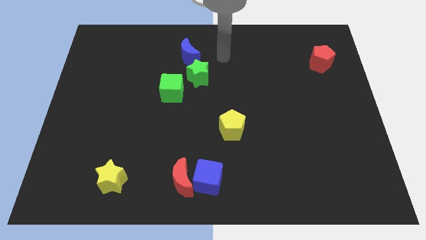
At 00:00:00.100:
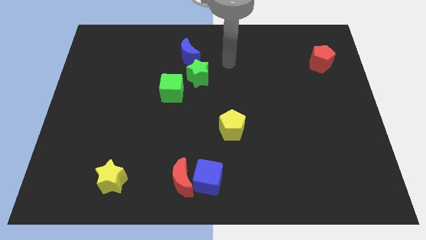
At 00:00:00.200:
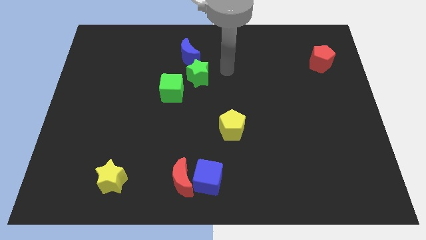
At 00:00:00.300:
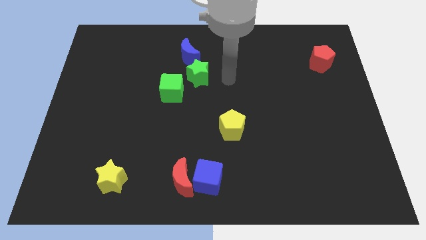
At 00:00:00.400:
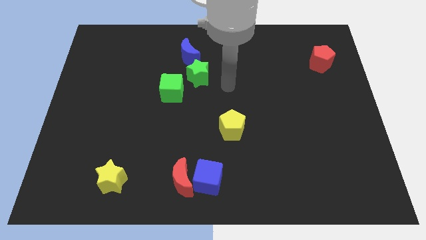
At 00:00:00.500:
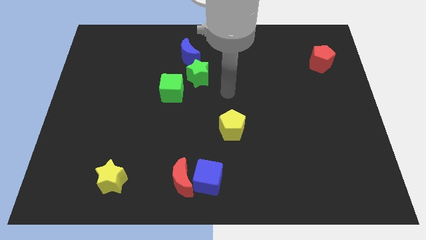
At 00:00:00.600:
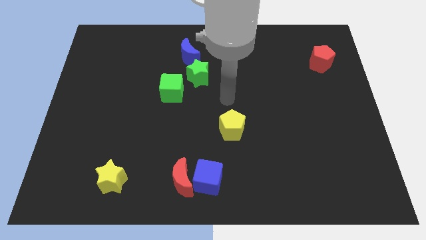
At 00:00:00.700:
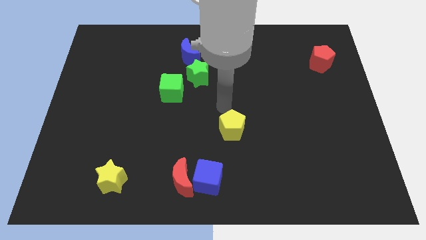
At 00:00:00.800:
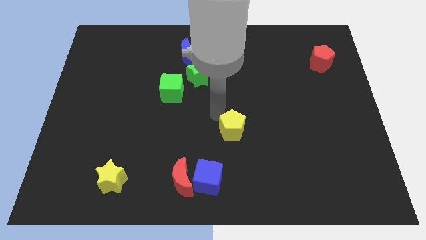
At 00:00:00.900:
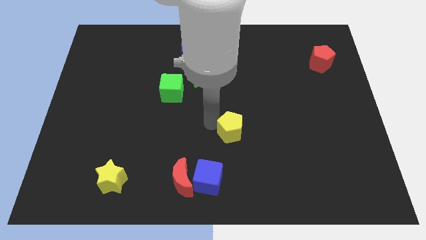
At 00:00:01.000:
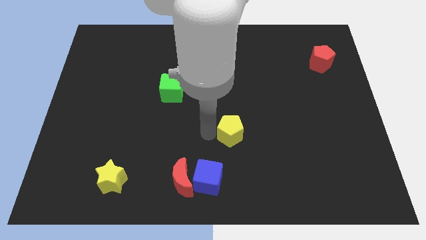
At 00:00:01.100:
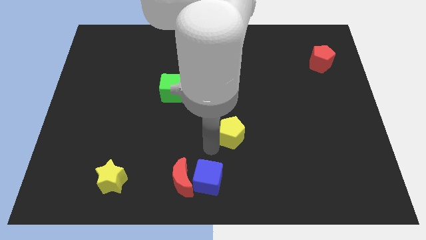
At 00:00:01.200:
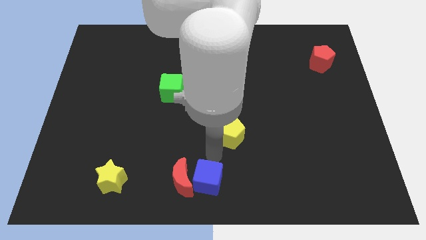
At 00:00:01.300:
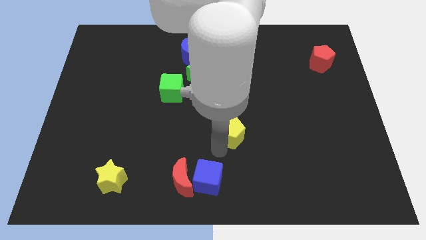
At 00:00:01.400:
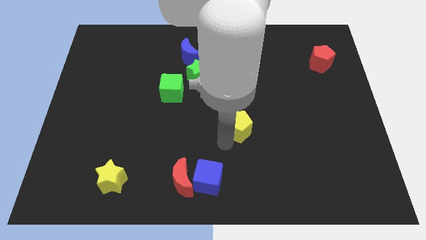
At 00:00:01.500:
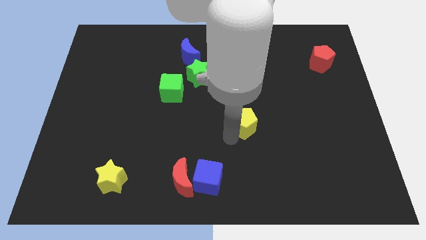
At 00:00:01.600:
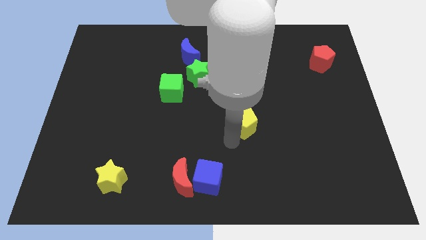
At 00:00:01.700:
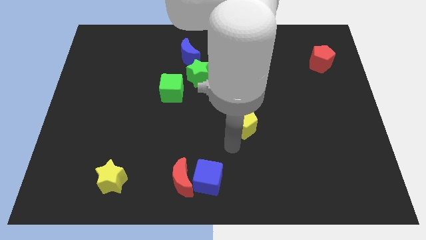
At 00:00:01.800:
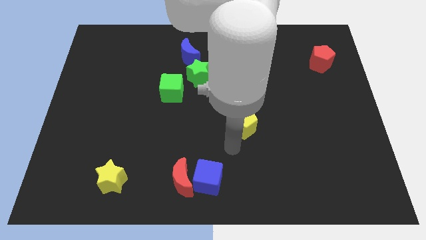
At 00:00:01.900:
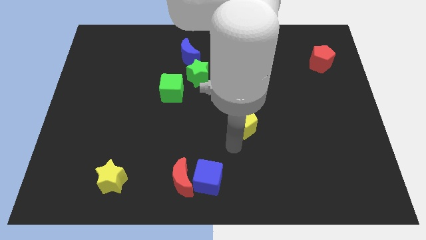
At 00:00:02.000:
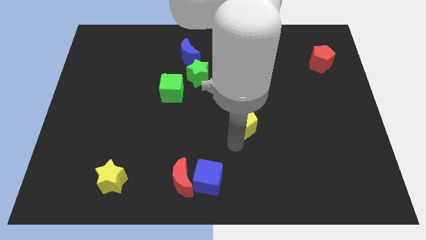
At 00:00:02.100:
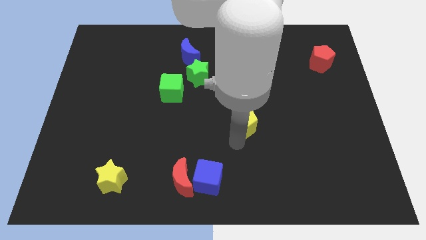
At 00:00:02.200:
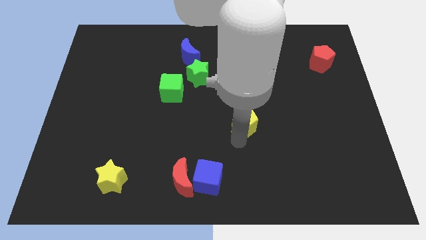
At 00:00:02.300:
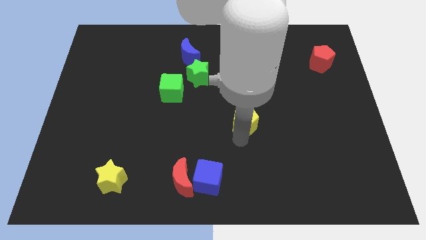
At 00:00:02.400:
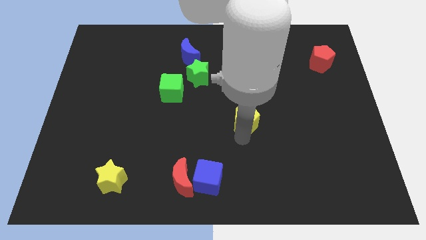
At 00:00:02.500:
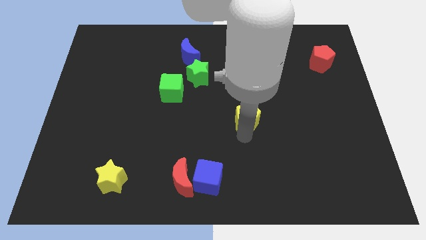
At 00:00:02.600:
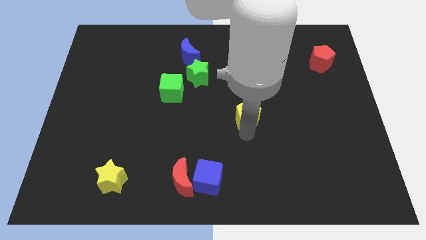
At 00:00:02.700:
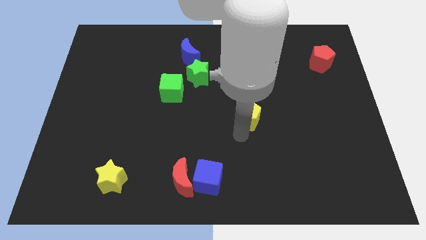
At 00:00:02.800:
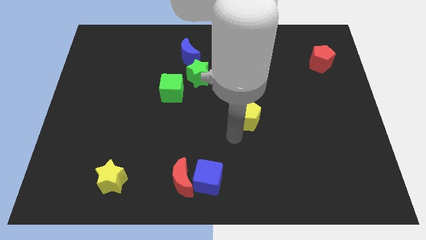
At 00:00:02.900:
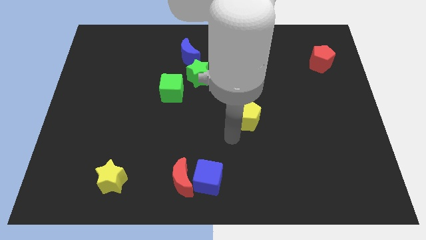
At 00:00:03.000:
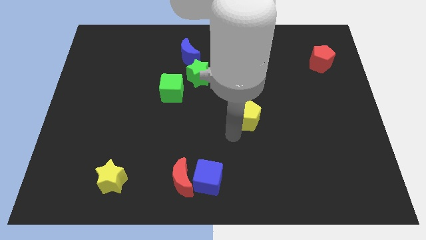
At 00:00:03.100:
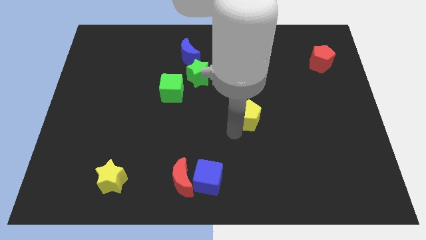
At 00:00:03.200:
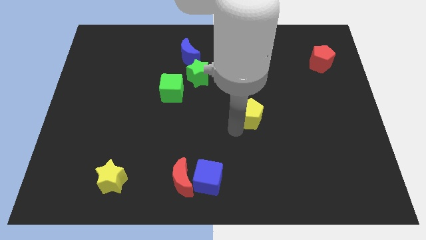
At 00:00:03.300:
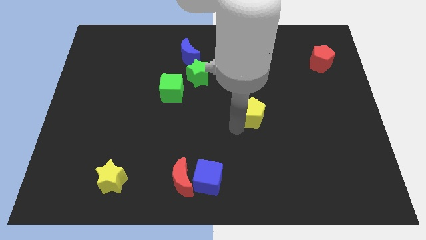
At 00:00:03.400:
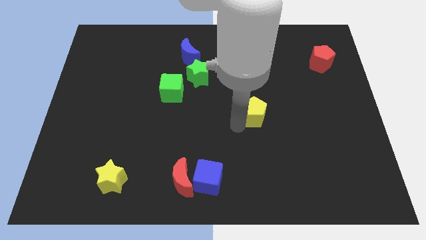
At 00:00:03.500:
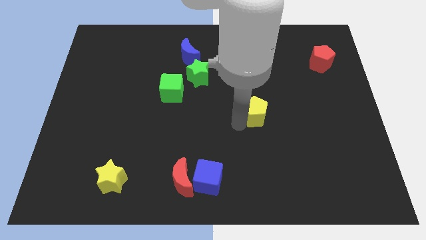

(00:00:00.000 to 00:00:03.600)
push the yellow pentagon diagonally up and to the right somewhat

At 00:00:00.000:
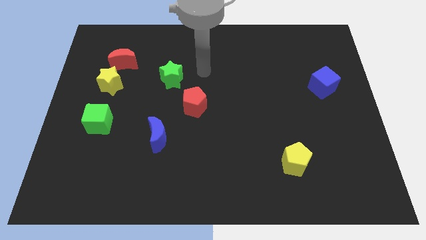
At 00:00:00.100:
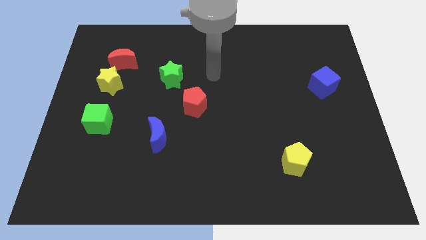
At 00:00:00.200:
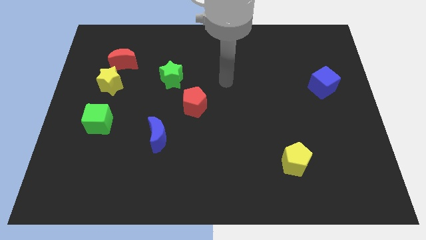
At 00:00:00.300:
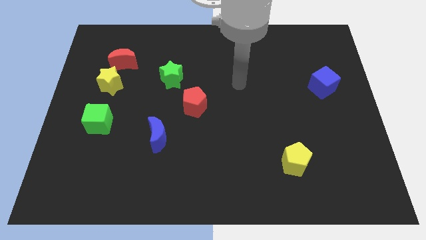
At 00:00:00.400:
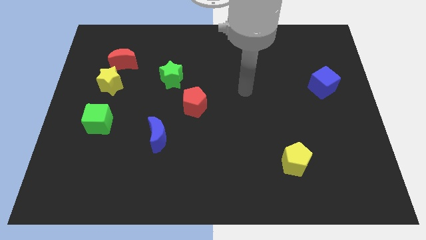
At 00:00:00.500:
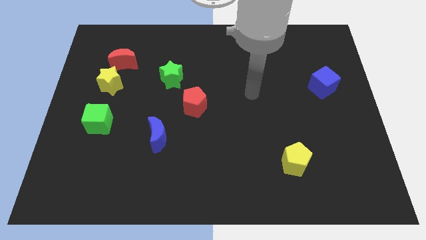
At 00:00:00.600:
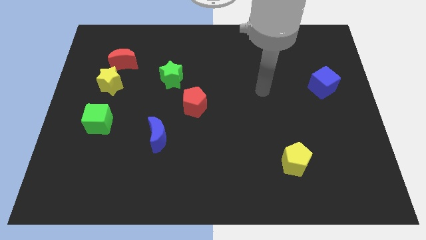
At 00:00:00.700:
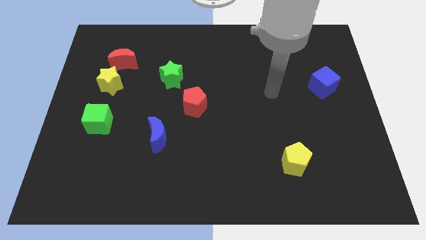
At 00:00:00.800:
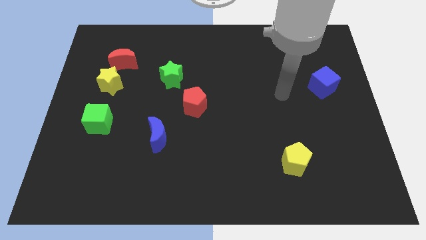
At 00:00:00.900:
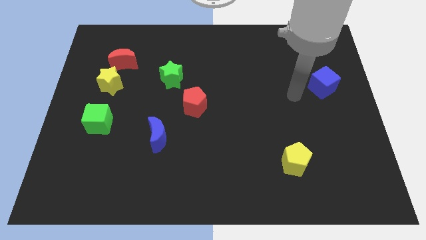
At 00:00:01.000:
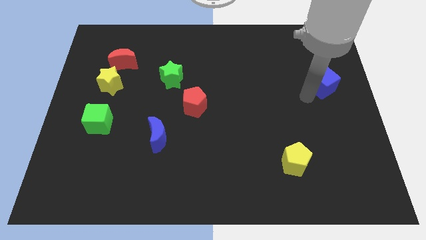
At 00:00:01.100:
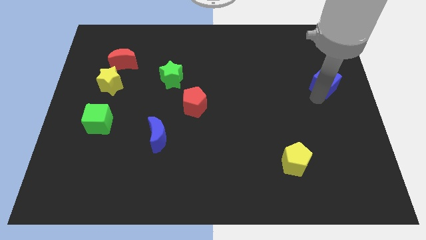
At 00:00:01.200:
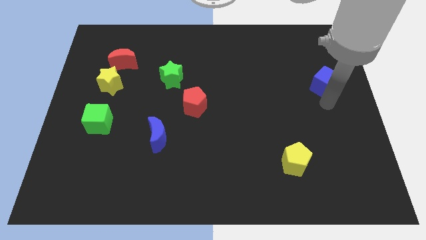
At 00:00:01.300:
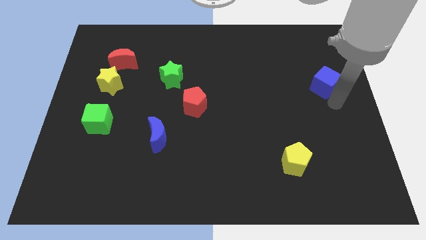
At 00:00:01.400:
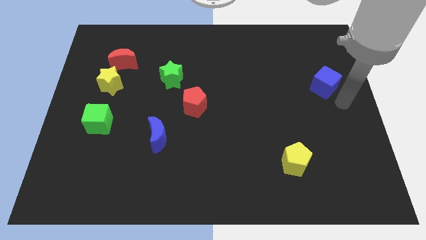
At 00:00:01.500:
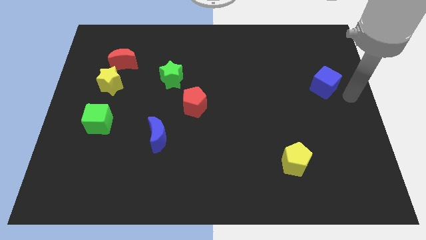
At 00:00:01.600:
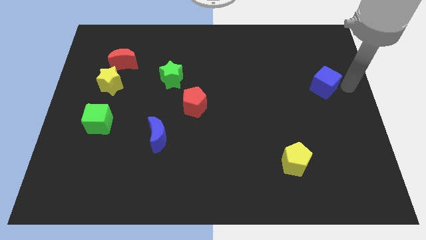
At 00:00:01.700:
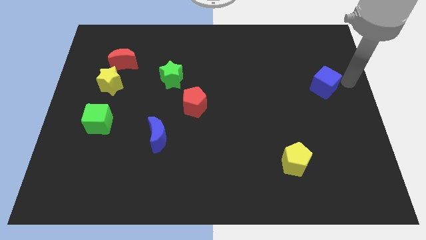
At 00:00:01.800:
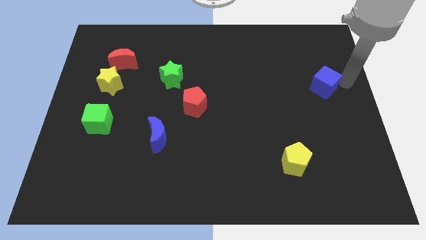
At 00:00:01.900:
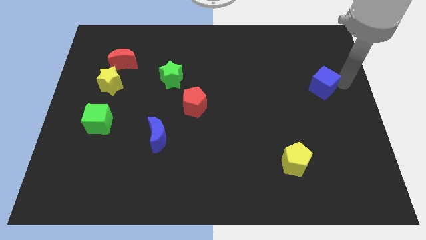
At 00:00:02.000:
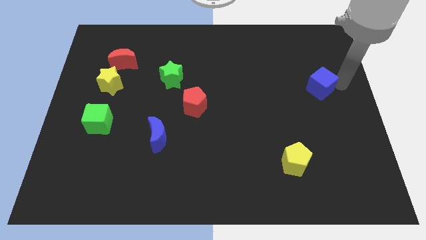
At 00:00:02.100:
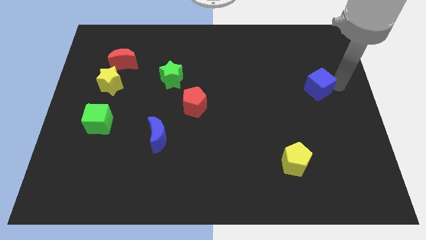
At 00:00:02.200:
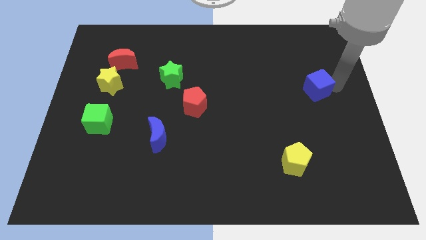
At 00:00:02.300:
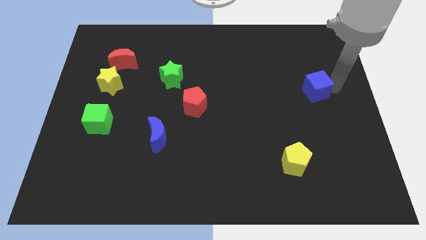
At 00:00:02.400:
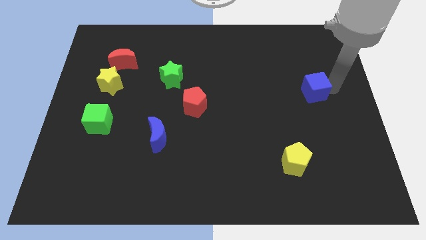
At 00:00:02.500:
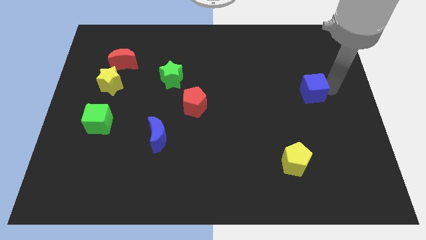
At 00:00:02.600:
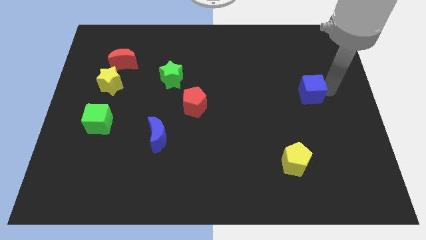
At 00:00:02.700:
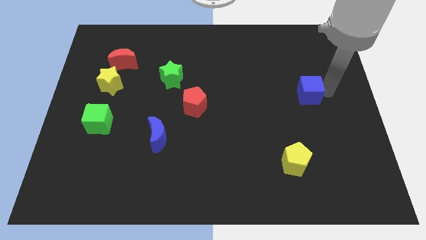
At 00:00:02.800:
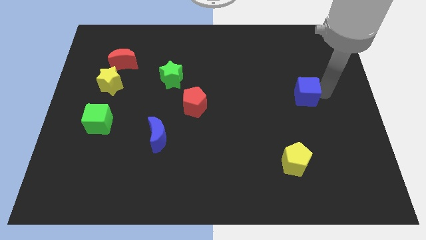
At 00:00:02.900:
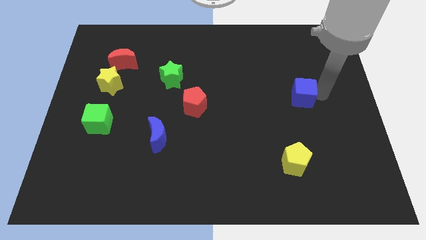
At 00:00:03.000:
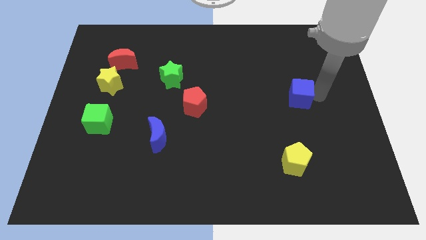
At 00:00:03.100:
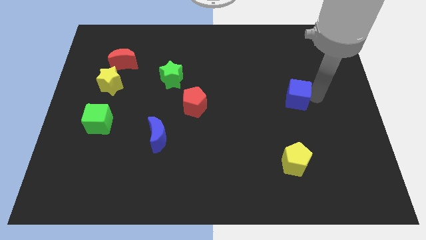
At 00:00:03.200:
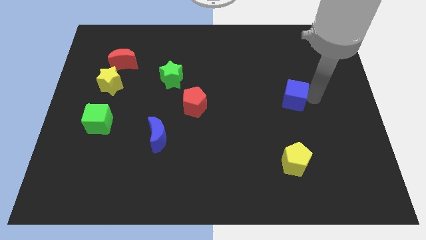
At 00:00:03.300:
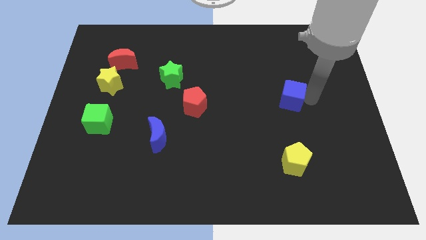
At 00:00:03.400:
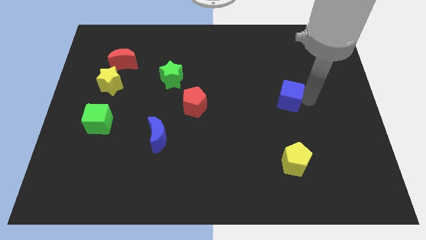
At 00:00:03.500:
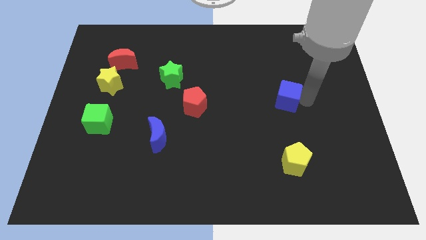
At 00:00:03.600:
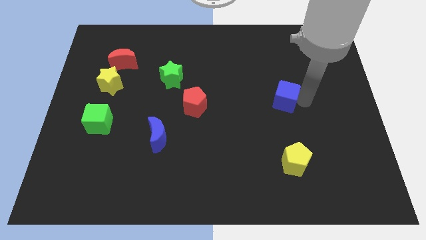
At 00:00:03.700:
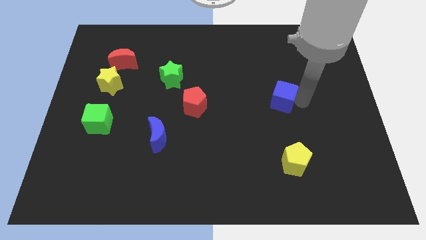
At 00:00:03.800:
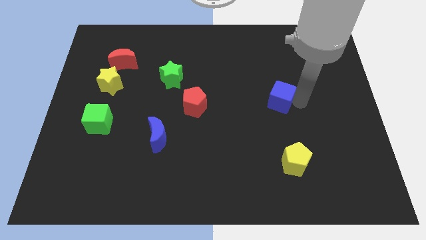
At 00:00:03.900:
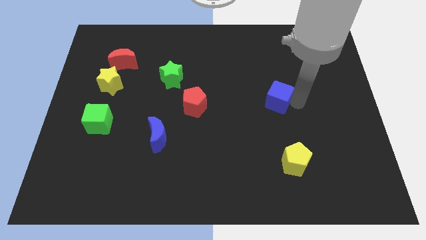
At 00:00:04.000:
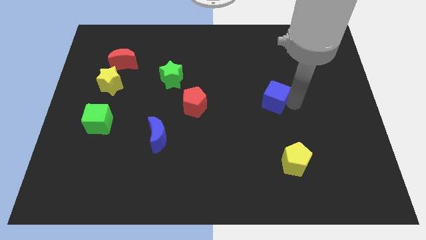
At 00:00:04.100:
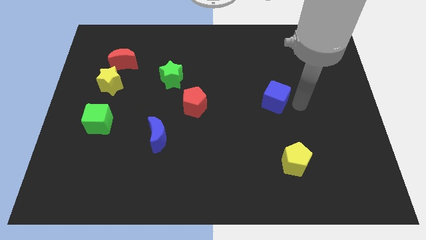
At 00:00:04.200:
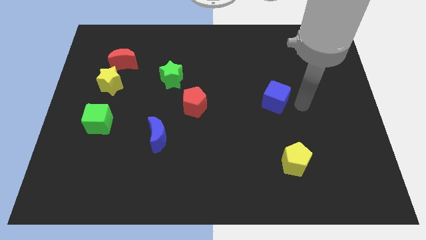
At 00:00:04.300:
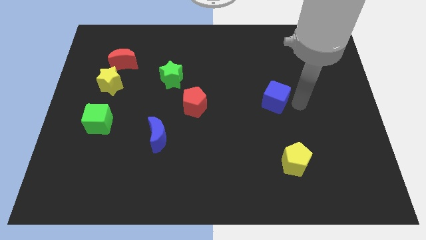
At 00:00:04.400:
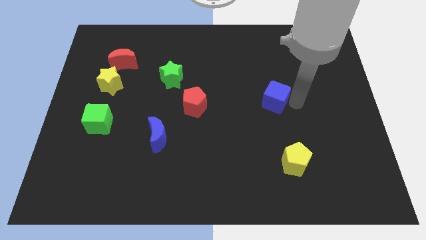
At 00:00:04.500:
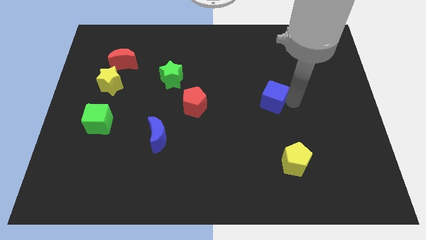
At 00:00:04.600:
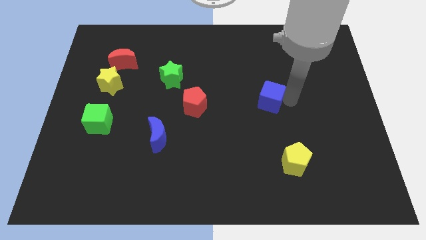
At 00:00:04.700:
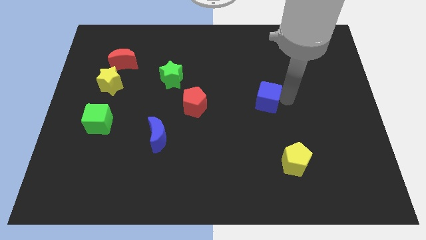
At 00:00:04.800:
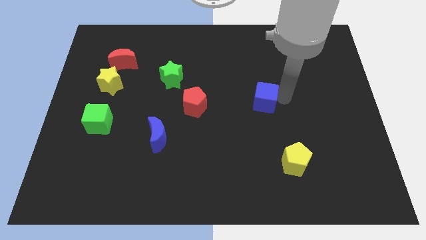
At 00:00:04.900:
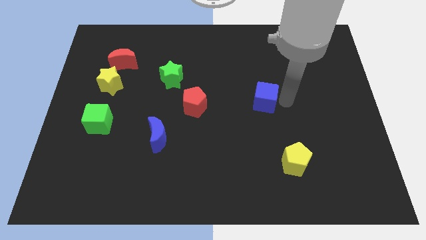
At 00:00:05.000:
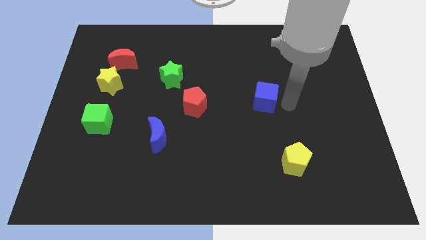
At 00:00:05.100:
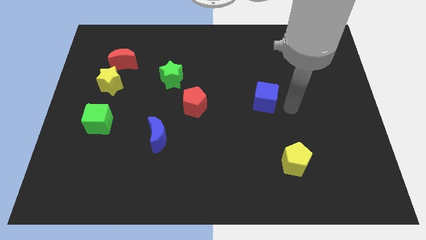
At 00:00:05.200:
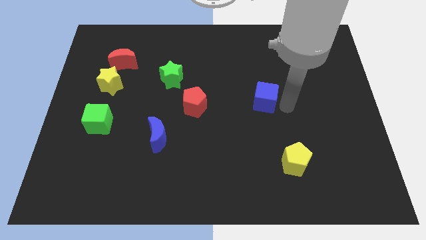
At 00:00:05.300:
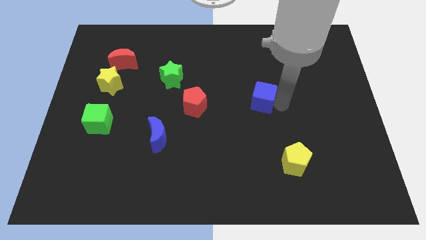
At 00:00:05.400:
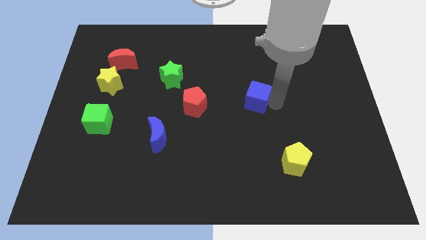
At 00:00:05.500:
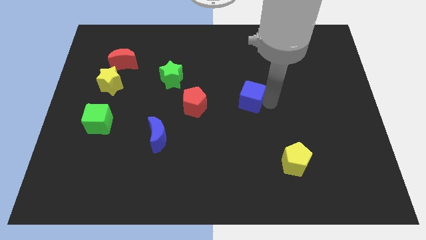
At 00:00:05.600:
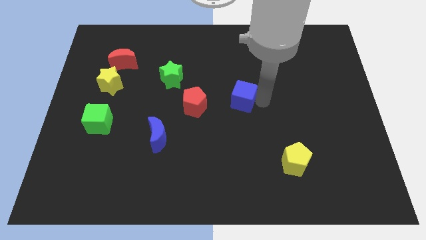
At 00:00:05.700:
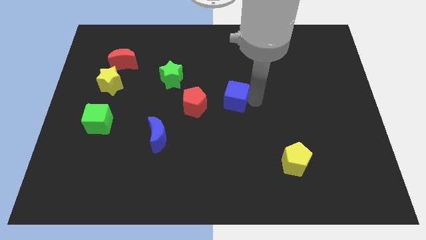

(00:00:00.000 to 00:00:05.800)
slide the blue cube to the left
